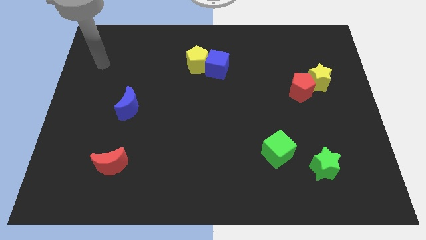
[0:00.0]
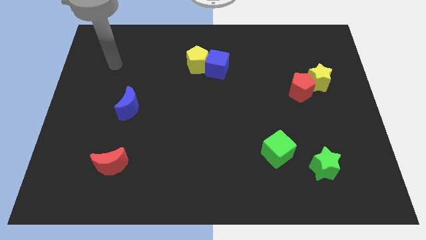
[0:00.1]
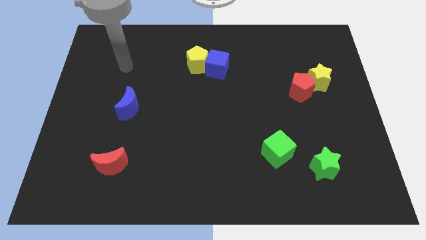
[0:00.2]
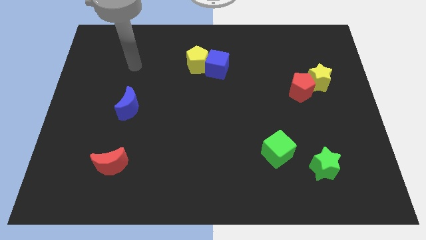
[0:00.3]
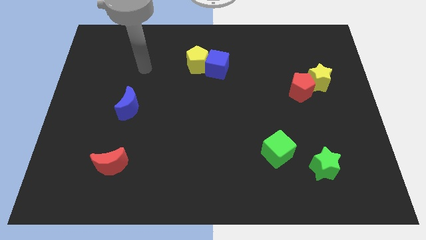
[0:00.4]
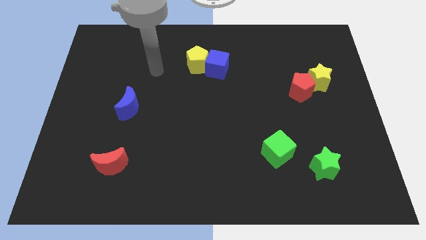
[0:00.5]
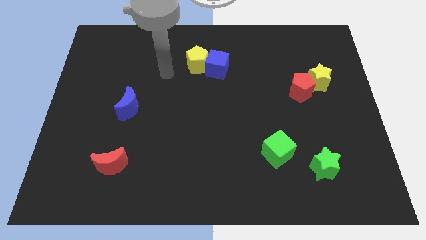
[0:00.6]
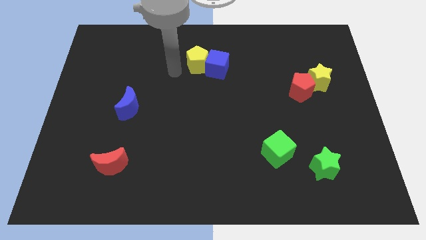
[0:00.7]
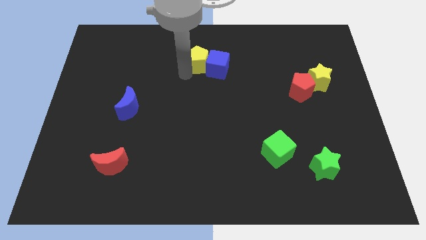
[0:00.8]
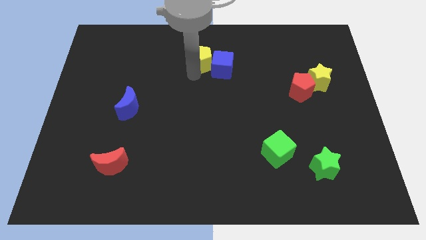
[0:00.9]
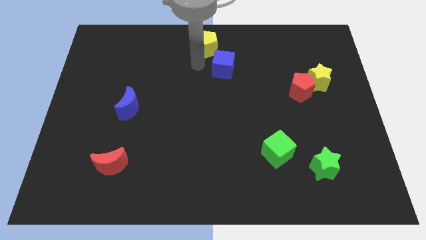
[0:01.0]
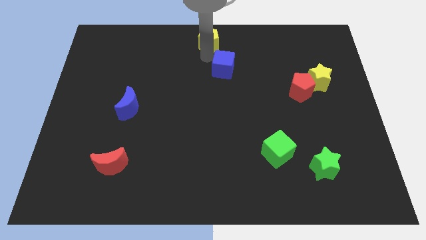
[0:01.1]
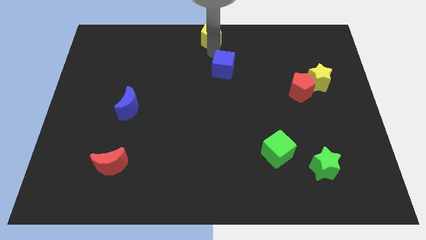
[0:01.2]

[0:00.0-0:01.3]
move the blue cube away from the yellow pentagon

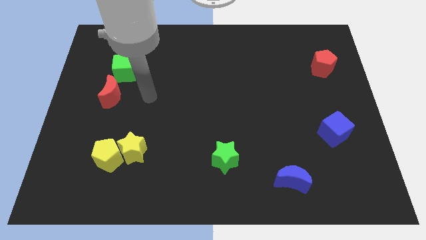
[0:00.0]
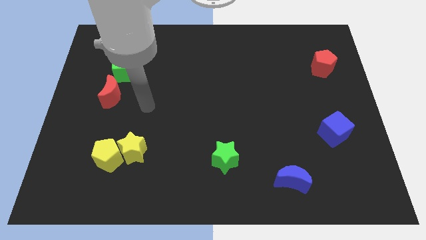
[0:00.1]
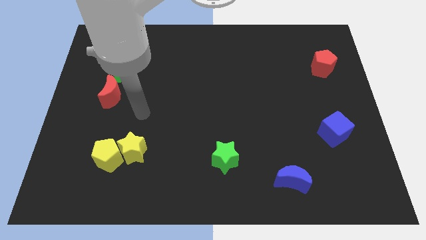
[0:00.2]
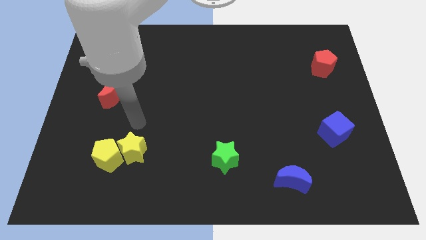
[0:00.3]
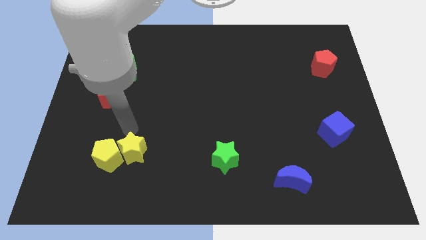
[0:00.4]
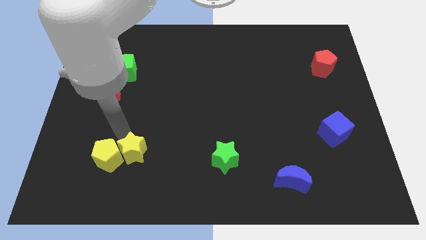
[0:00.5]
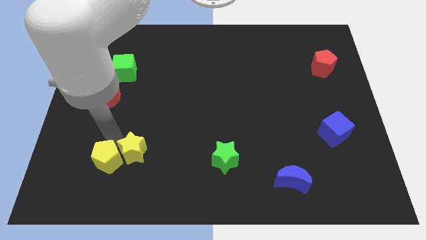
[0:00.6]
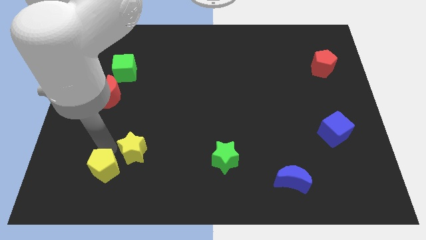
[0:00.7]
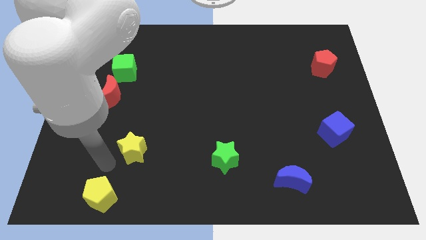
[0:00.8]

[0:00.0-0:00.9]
move the yellow star away from the yellow pentagon

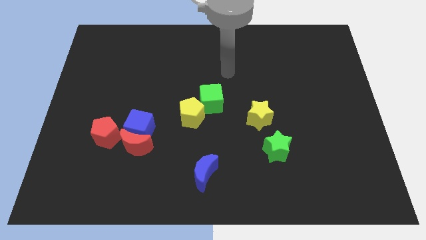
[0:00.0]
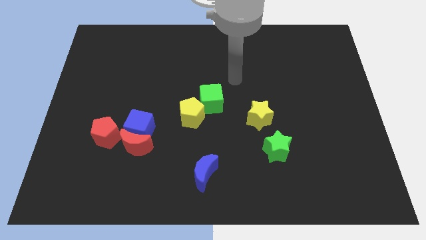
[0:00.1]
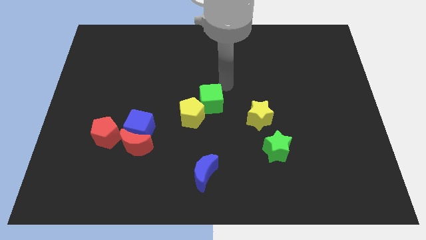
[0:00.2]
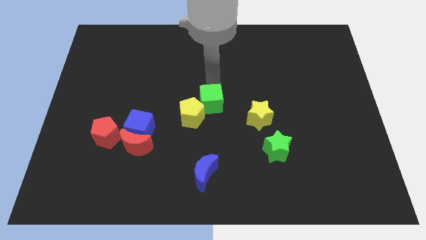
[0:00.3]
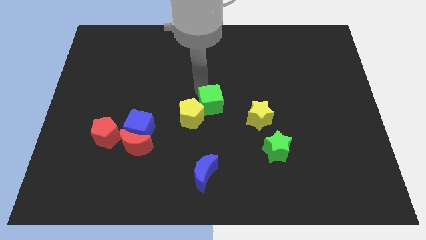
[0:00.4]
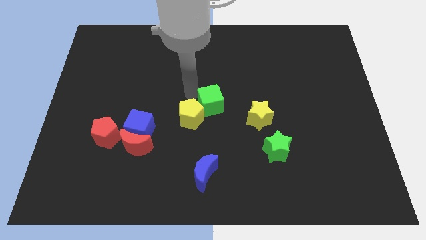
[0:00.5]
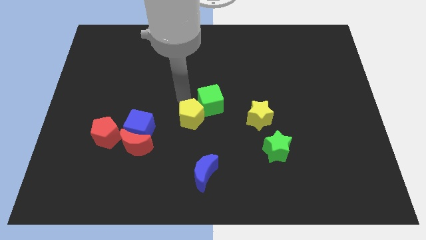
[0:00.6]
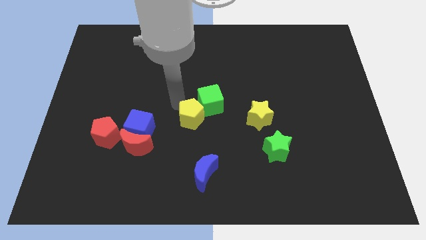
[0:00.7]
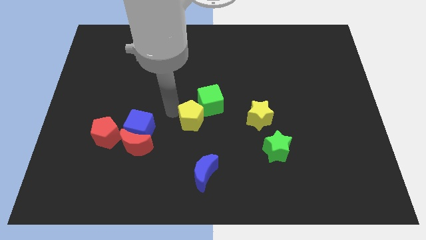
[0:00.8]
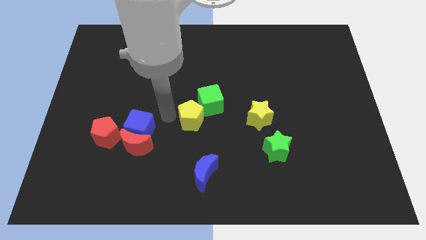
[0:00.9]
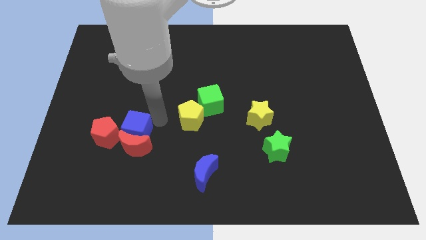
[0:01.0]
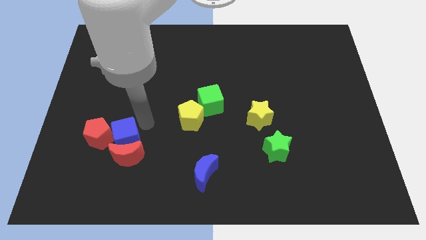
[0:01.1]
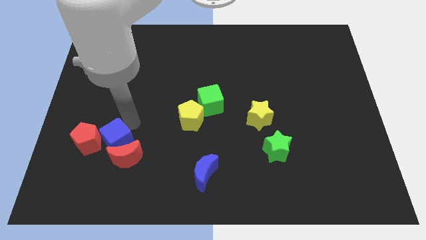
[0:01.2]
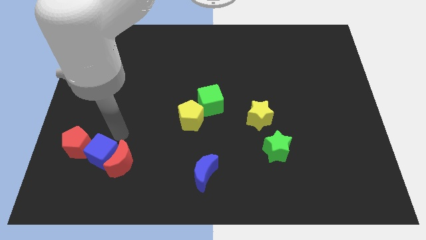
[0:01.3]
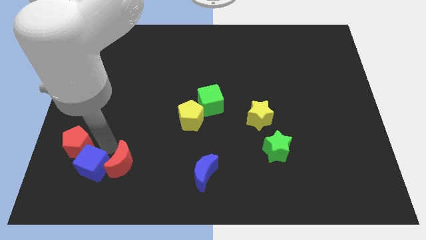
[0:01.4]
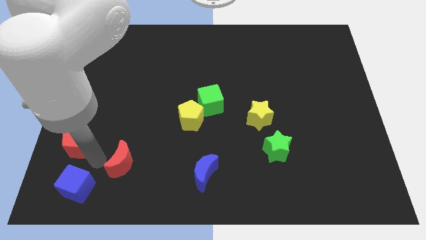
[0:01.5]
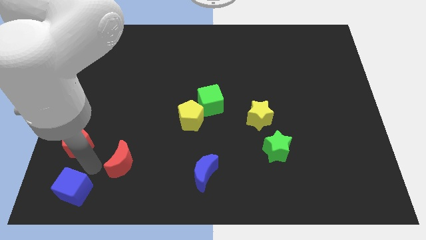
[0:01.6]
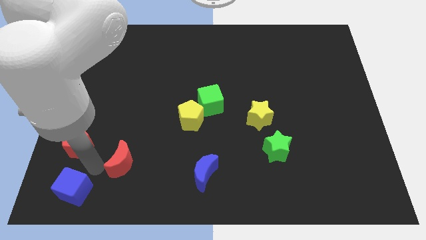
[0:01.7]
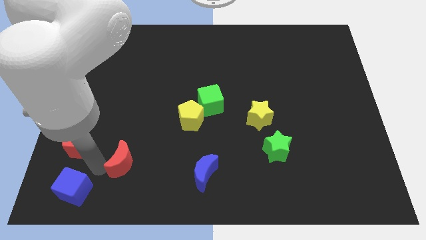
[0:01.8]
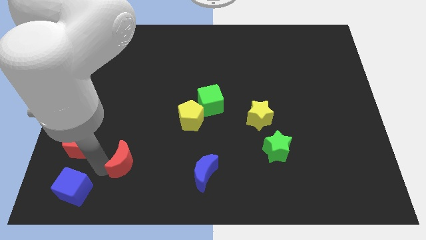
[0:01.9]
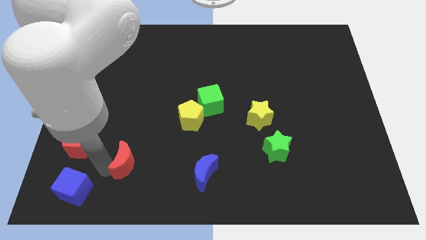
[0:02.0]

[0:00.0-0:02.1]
pull the red moon apart from the blue cube and red pentagon

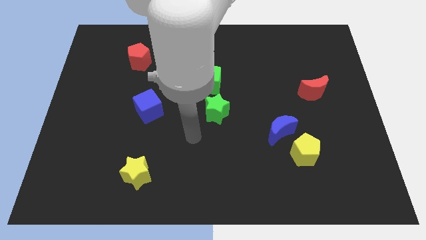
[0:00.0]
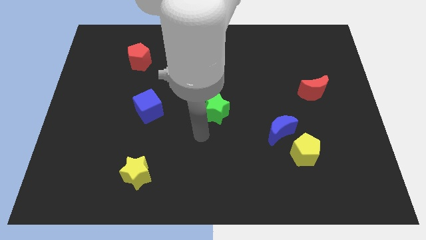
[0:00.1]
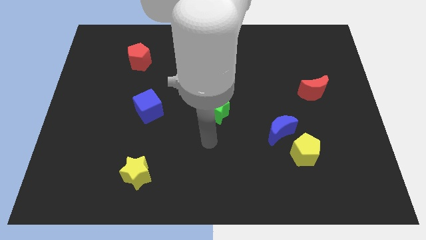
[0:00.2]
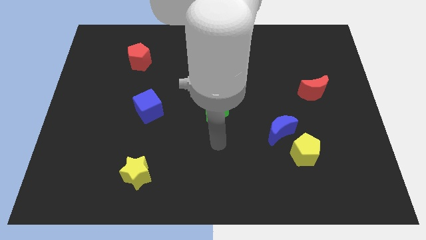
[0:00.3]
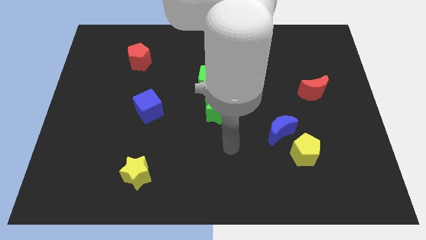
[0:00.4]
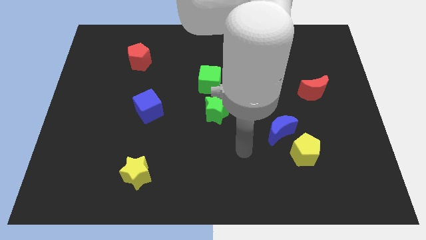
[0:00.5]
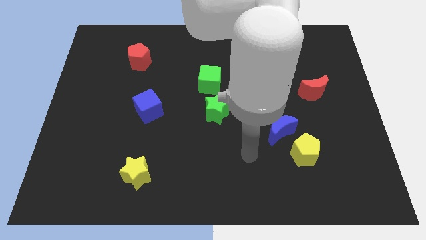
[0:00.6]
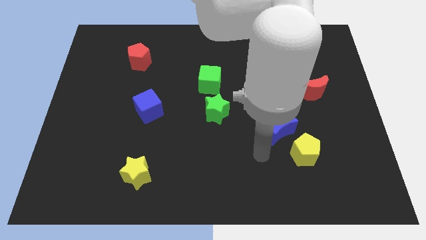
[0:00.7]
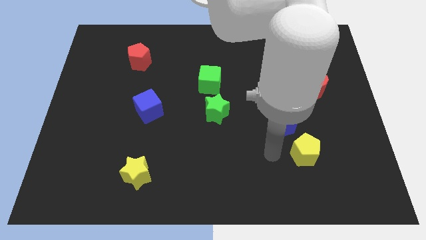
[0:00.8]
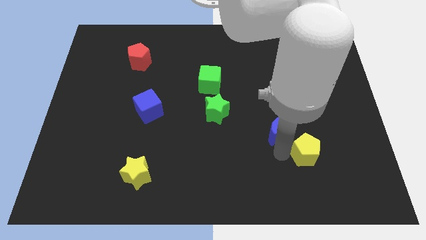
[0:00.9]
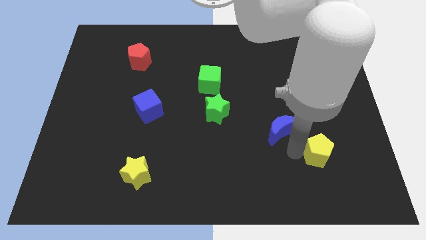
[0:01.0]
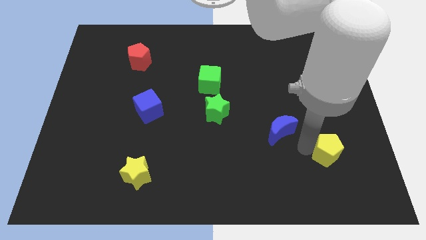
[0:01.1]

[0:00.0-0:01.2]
move the blue moon away from the yellow pentagon

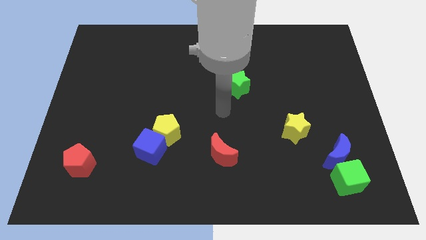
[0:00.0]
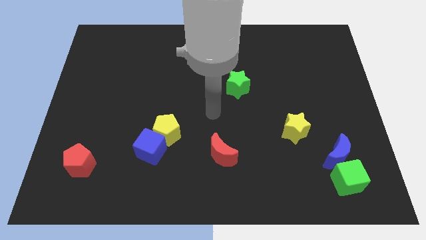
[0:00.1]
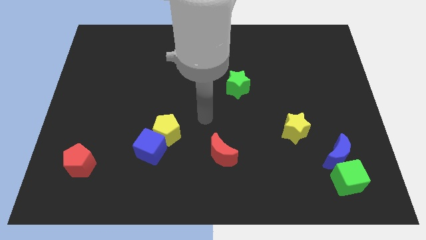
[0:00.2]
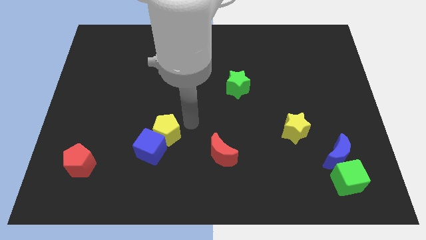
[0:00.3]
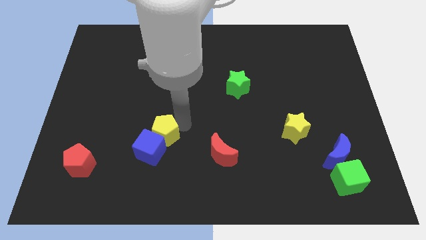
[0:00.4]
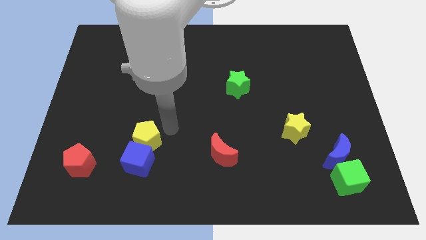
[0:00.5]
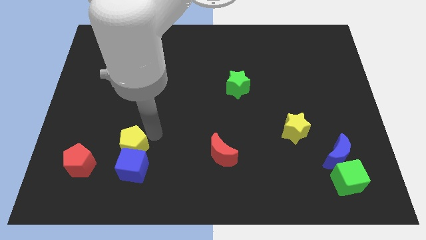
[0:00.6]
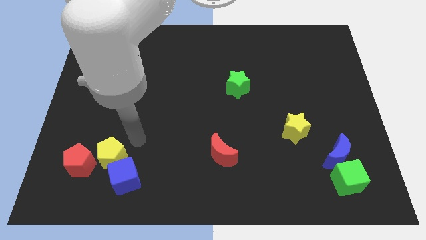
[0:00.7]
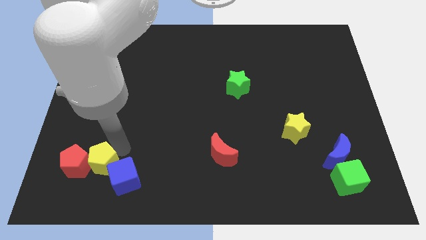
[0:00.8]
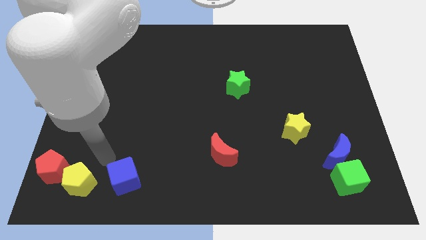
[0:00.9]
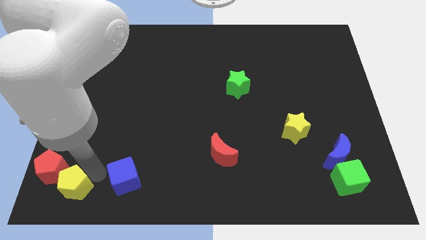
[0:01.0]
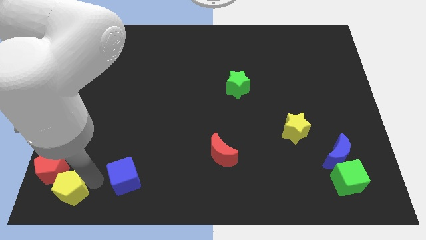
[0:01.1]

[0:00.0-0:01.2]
separate the blue cube from the yellow pentagon

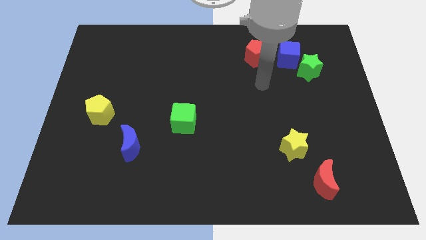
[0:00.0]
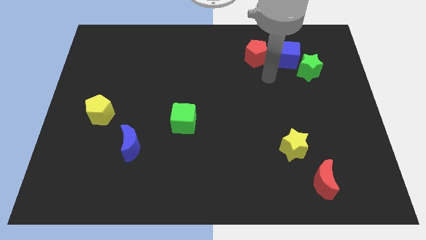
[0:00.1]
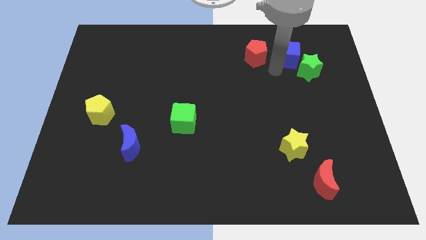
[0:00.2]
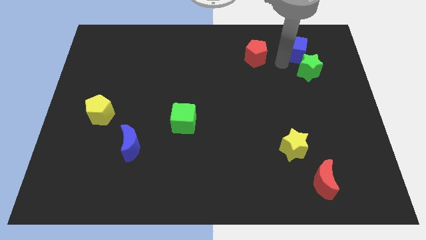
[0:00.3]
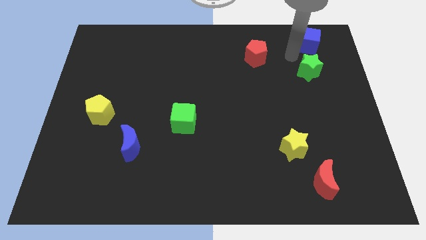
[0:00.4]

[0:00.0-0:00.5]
move the green star away from the blue cube

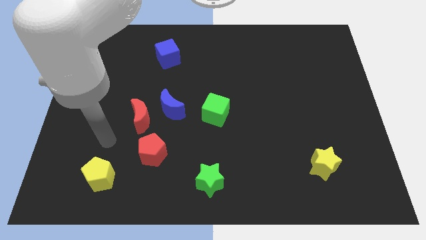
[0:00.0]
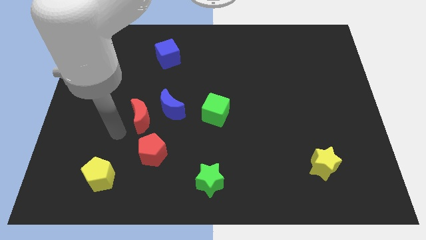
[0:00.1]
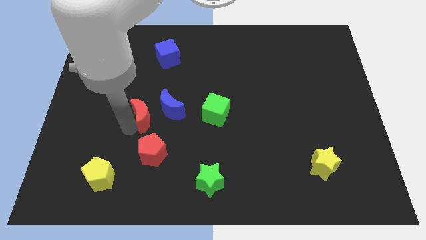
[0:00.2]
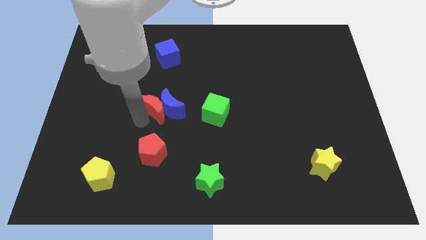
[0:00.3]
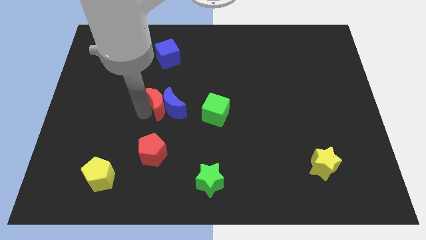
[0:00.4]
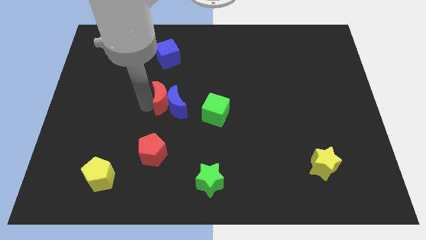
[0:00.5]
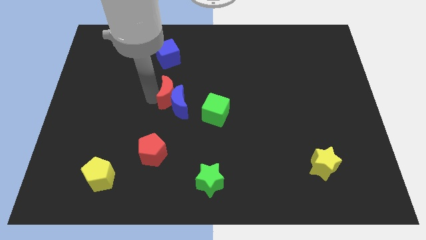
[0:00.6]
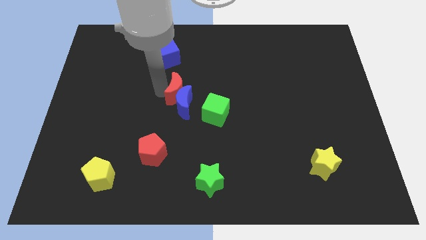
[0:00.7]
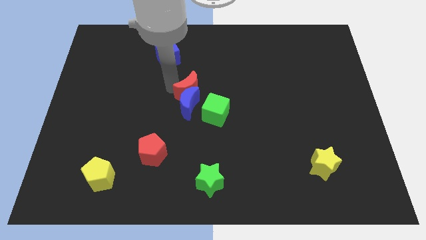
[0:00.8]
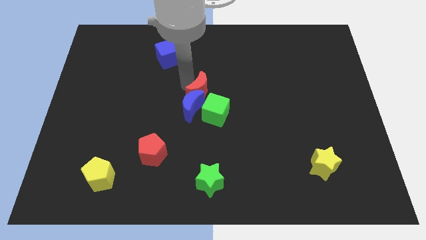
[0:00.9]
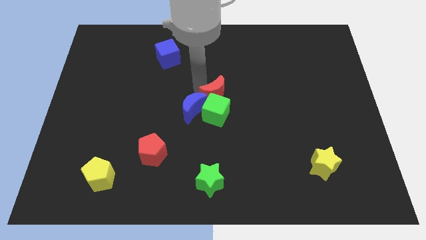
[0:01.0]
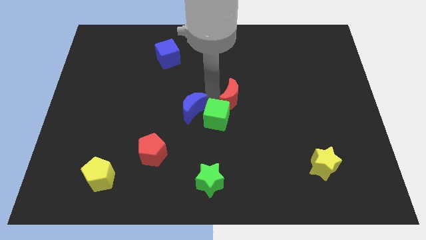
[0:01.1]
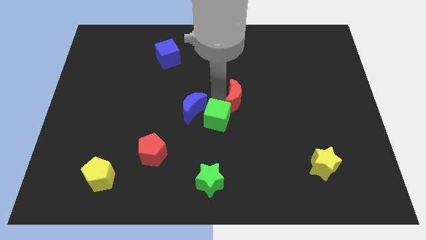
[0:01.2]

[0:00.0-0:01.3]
move the blue moon away from the red moon

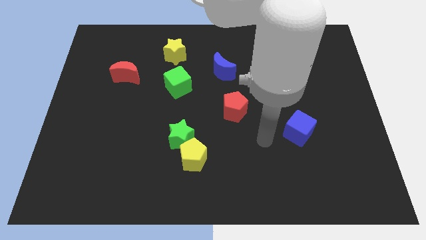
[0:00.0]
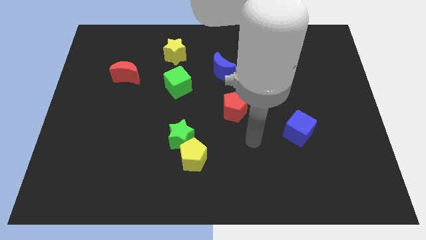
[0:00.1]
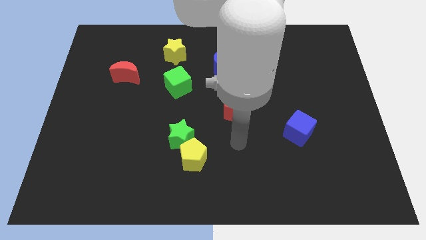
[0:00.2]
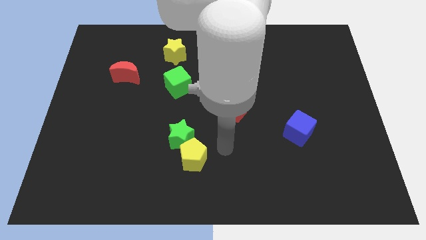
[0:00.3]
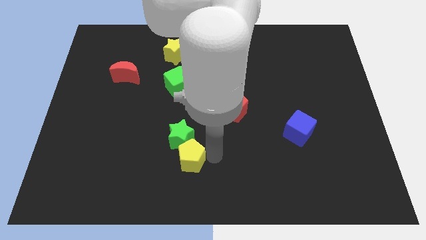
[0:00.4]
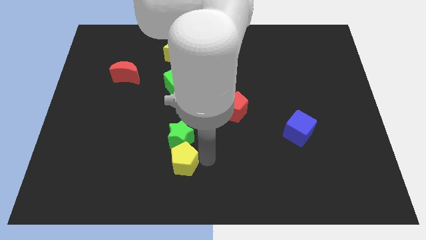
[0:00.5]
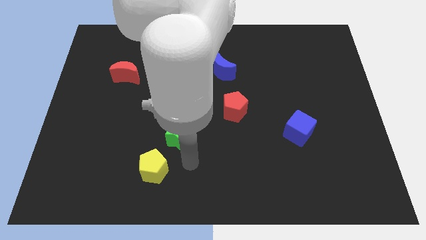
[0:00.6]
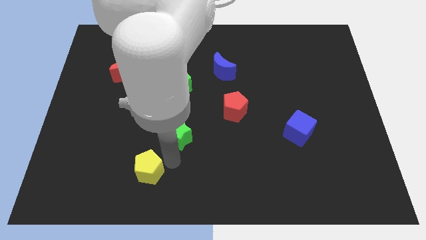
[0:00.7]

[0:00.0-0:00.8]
pull the green star apart from the yellow pentagon

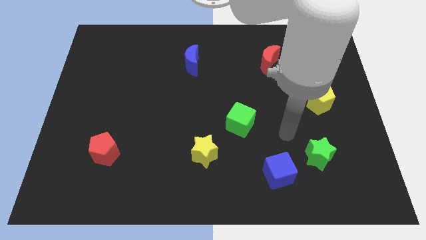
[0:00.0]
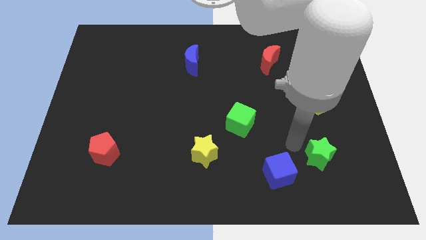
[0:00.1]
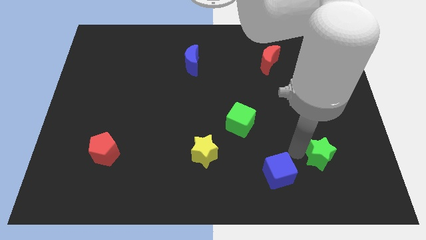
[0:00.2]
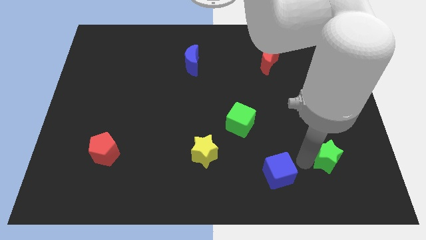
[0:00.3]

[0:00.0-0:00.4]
separate the blue cube from the green star
